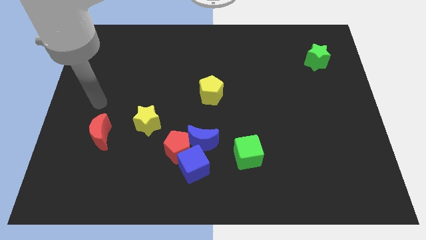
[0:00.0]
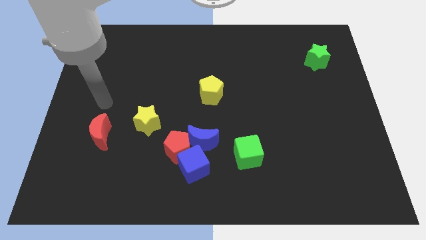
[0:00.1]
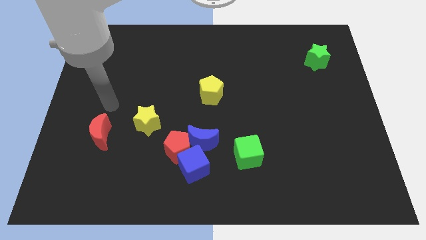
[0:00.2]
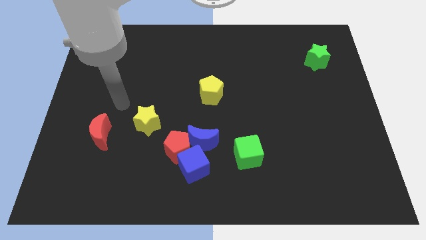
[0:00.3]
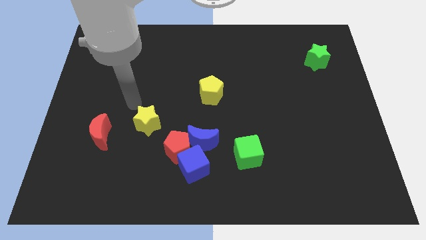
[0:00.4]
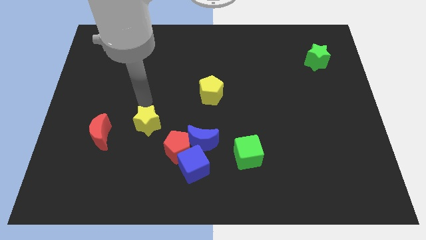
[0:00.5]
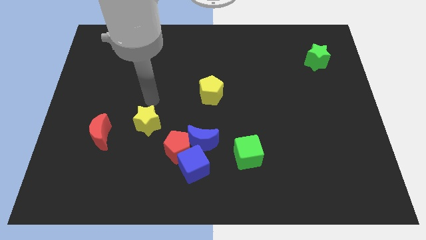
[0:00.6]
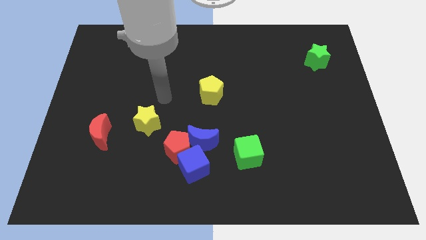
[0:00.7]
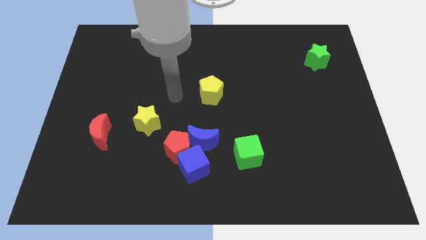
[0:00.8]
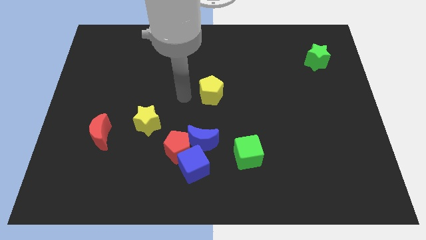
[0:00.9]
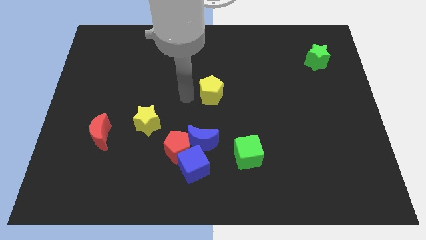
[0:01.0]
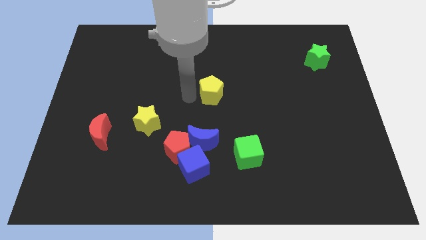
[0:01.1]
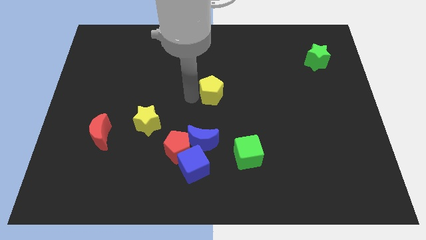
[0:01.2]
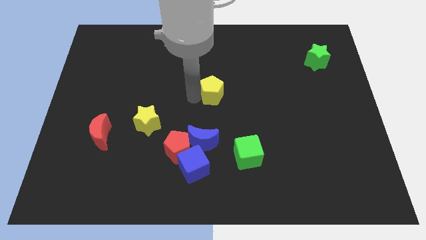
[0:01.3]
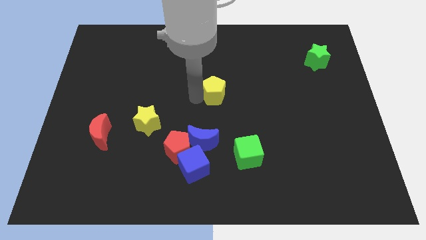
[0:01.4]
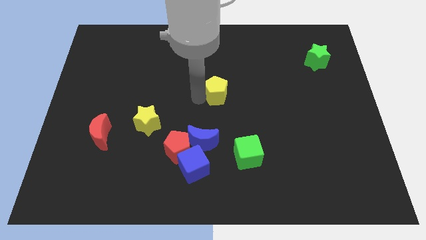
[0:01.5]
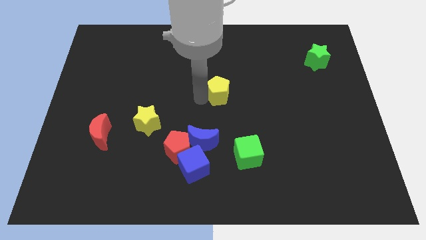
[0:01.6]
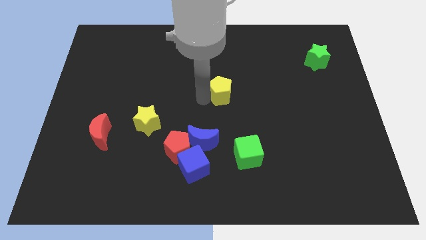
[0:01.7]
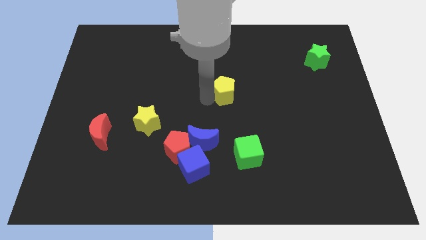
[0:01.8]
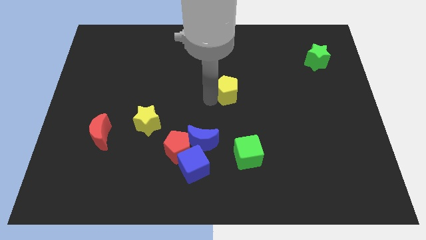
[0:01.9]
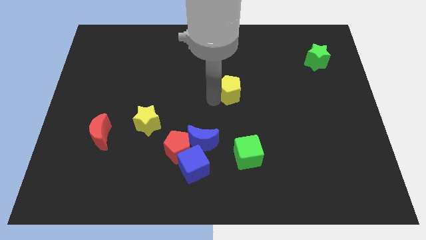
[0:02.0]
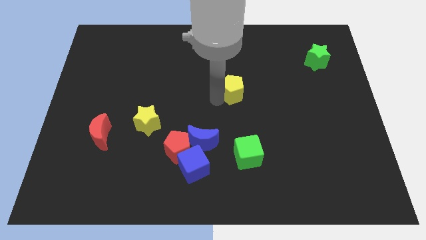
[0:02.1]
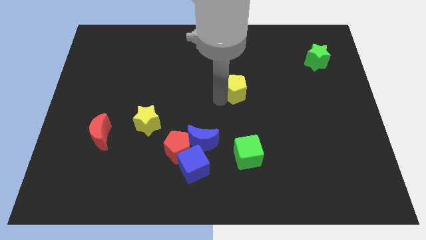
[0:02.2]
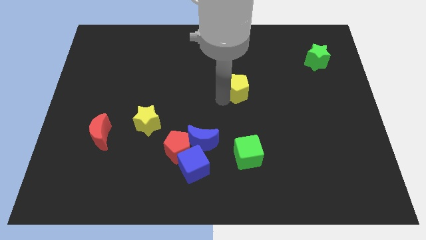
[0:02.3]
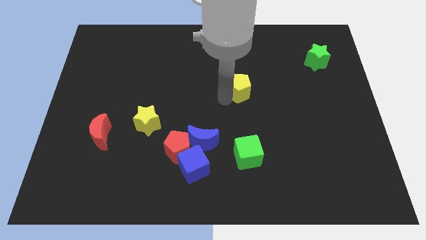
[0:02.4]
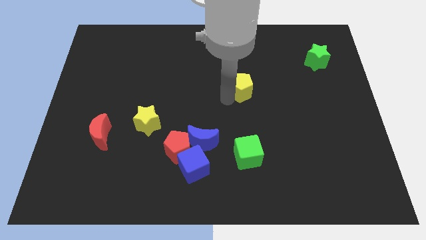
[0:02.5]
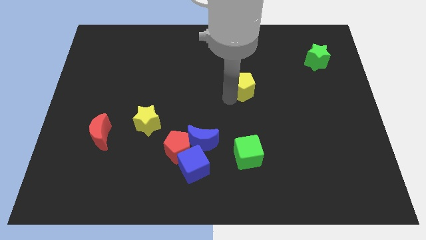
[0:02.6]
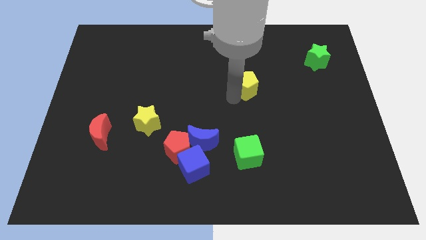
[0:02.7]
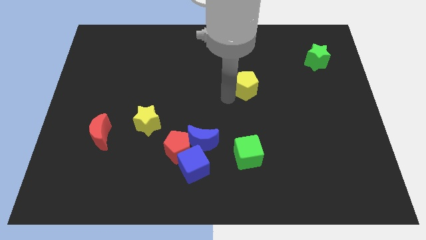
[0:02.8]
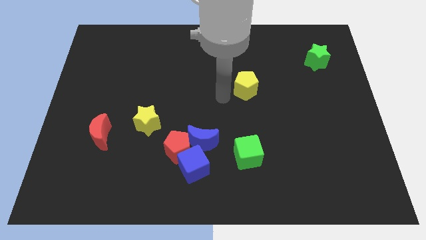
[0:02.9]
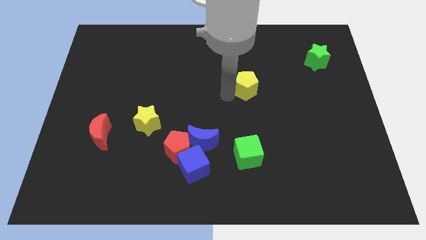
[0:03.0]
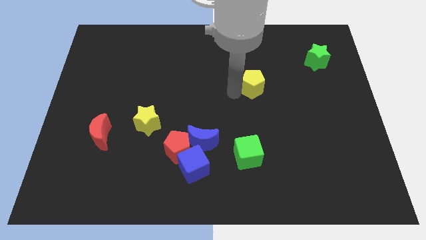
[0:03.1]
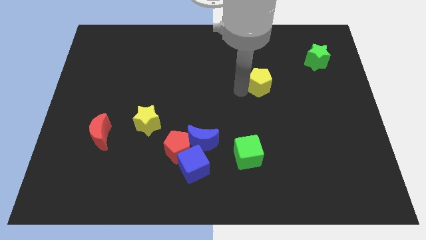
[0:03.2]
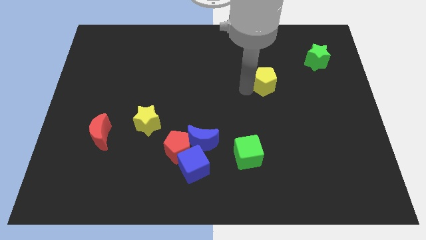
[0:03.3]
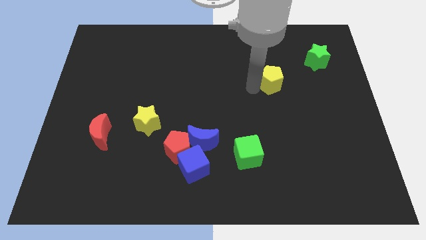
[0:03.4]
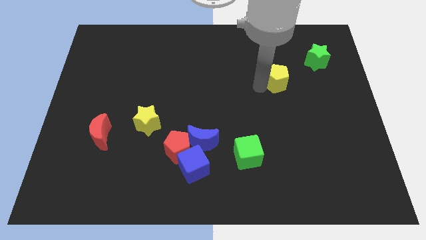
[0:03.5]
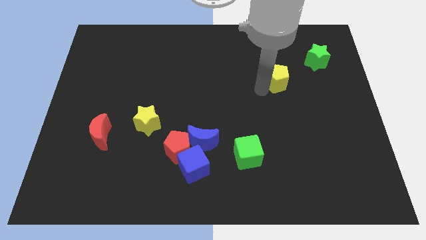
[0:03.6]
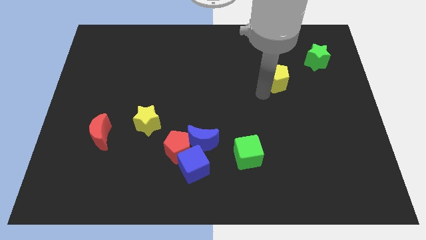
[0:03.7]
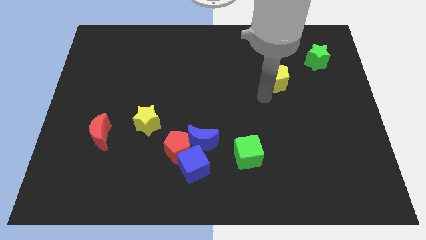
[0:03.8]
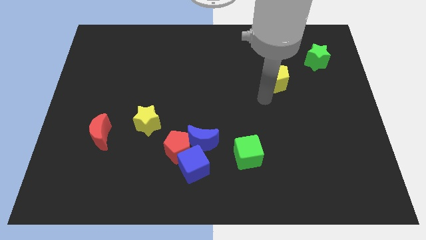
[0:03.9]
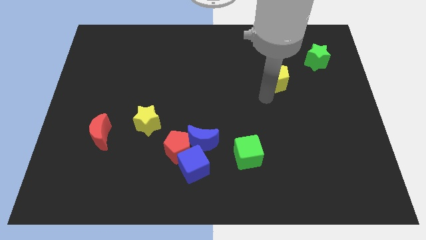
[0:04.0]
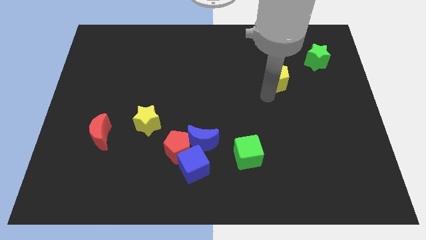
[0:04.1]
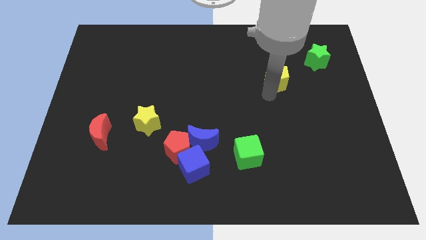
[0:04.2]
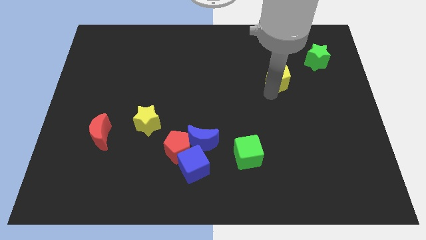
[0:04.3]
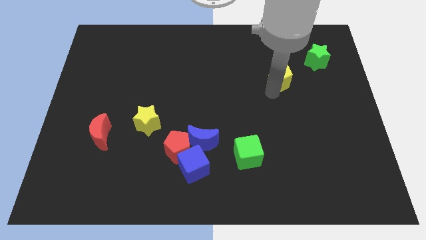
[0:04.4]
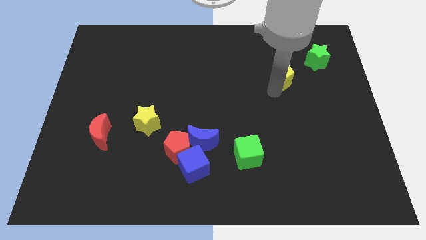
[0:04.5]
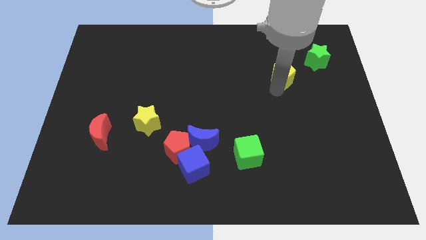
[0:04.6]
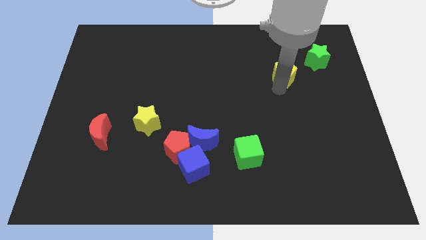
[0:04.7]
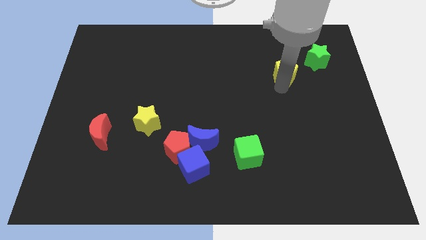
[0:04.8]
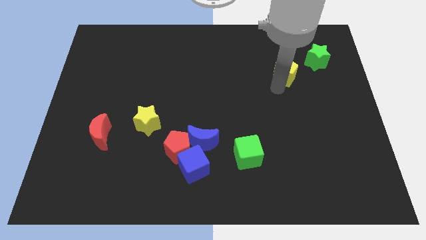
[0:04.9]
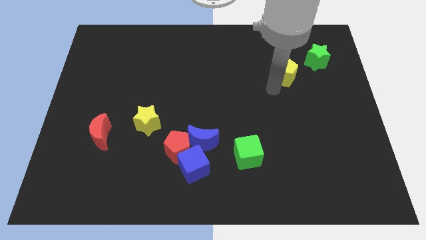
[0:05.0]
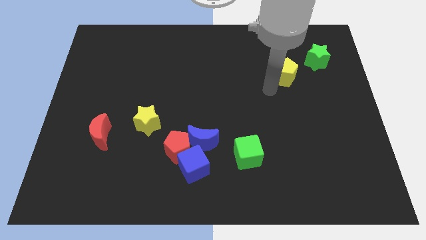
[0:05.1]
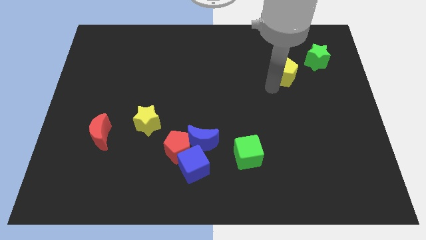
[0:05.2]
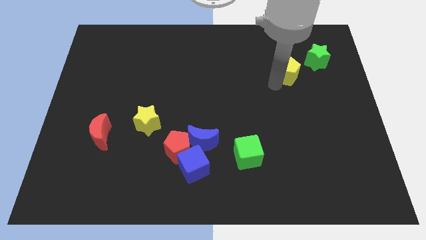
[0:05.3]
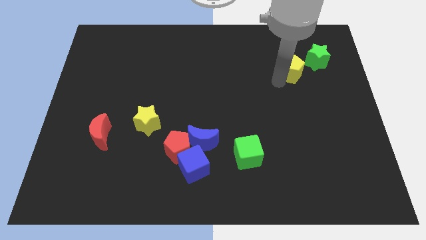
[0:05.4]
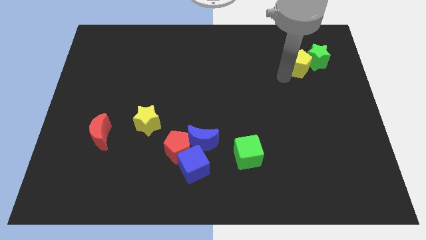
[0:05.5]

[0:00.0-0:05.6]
push the yellow pentagon to the green star

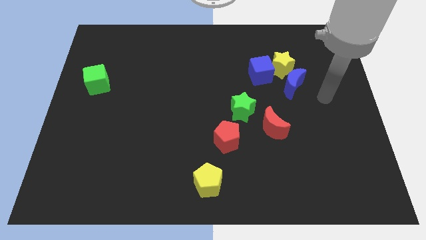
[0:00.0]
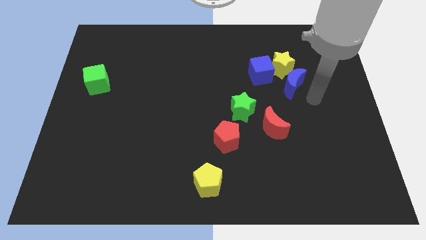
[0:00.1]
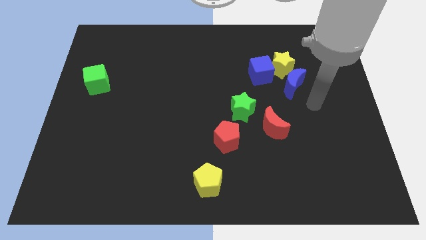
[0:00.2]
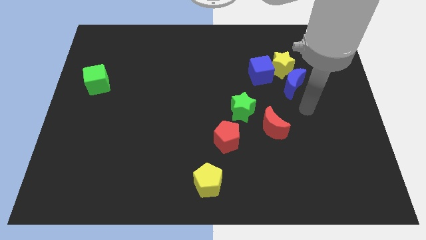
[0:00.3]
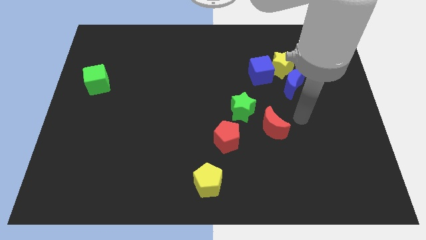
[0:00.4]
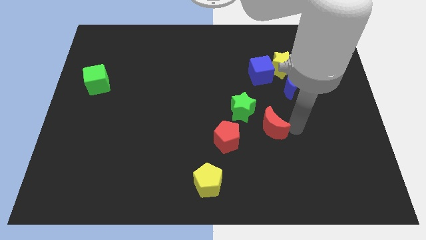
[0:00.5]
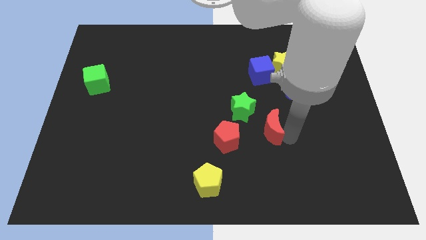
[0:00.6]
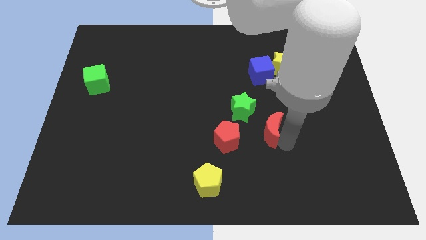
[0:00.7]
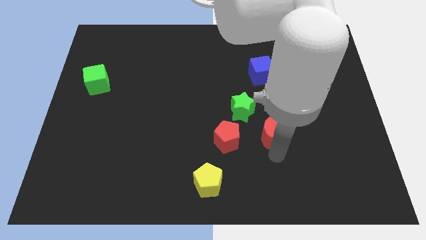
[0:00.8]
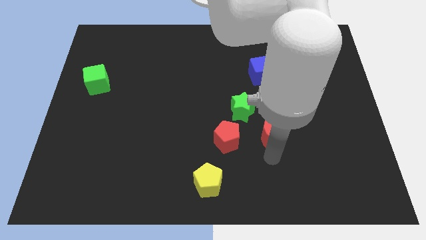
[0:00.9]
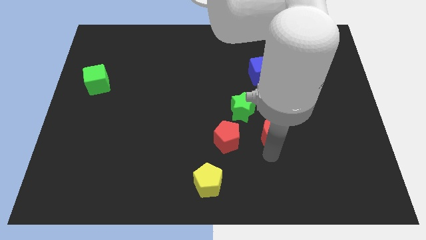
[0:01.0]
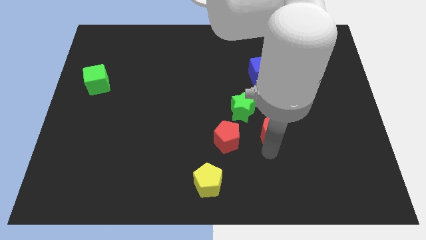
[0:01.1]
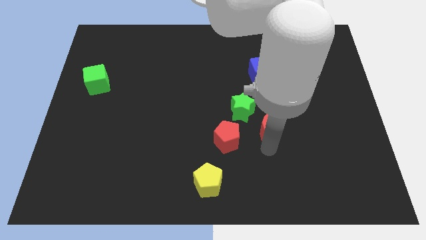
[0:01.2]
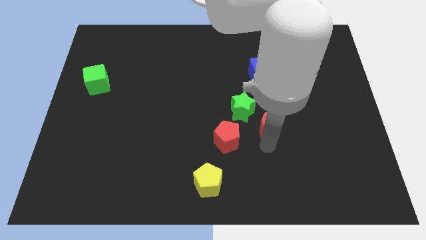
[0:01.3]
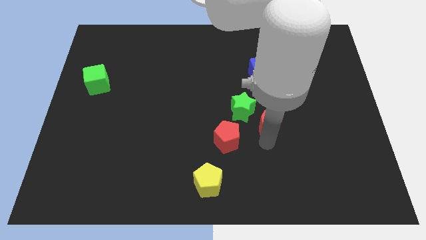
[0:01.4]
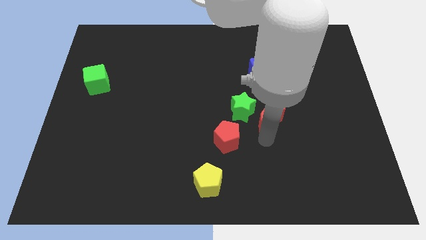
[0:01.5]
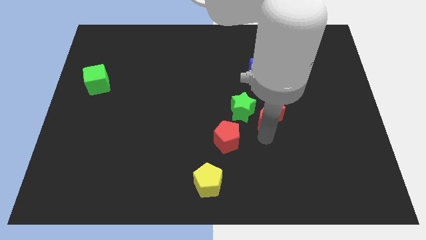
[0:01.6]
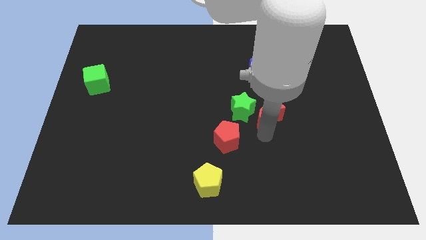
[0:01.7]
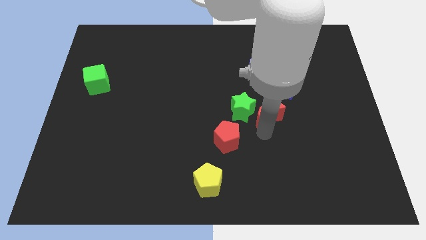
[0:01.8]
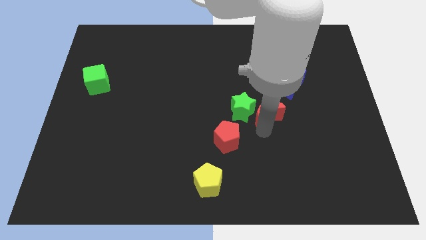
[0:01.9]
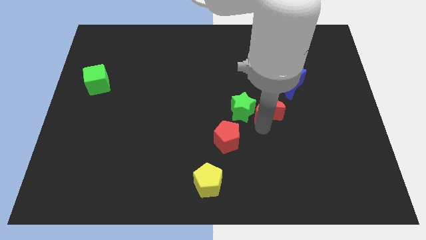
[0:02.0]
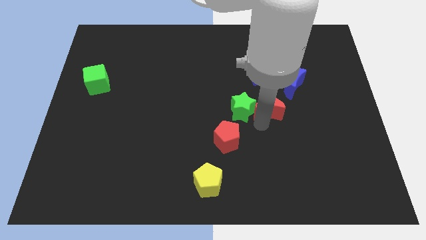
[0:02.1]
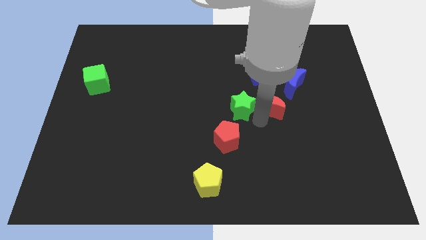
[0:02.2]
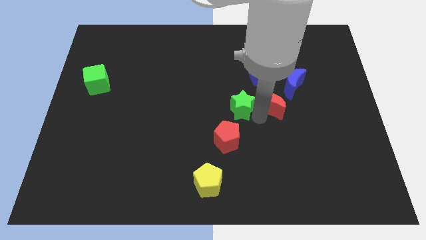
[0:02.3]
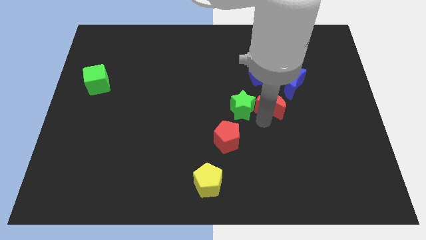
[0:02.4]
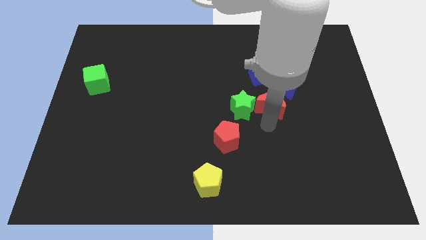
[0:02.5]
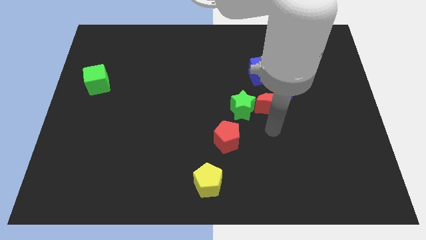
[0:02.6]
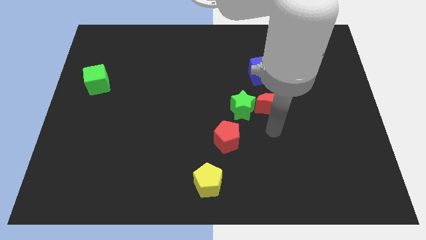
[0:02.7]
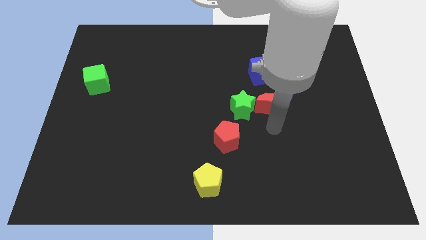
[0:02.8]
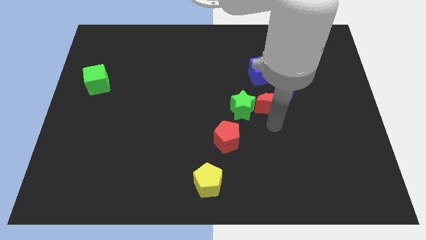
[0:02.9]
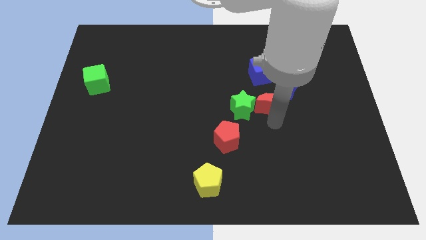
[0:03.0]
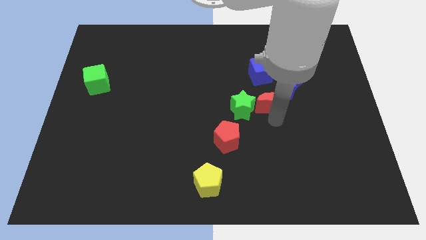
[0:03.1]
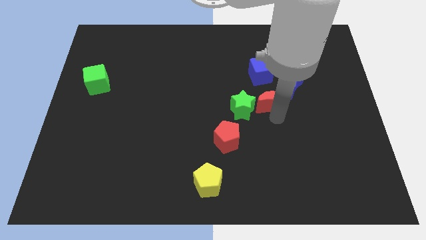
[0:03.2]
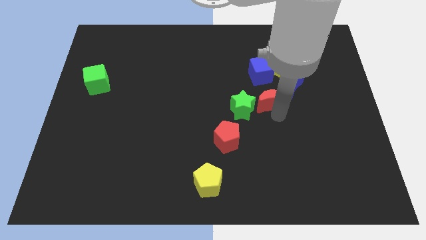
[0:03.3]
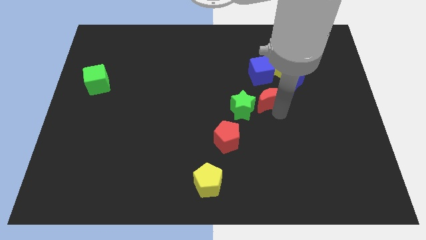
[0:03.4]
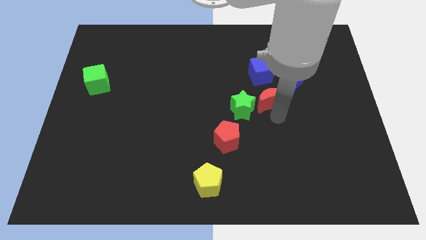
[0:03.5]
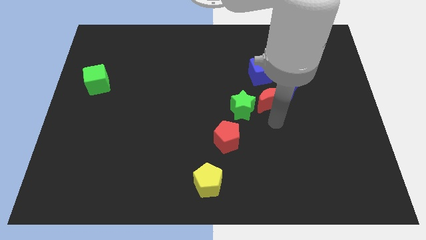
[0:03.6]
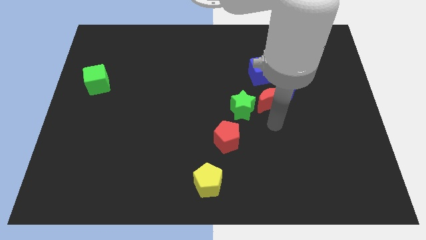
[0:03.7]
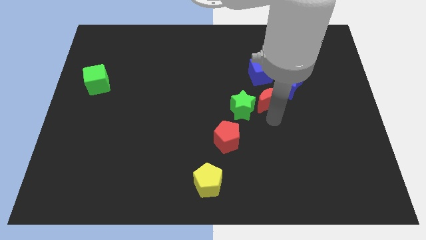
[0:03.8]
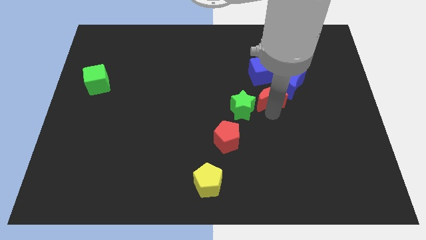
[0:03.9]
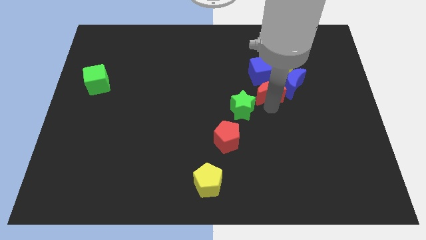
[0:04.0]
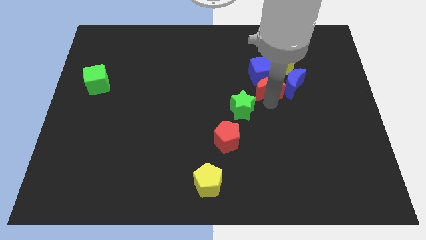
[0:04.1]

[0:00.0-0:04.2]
slide the red moon close to the blue cube
